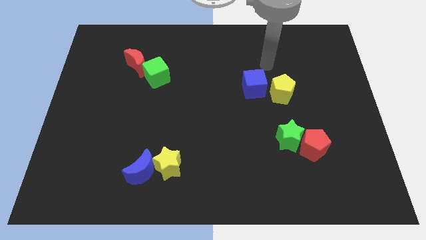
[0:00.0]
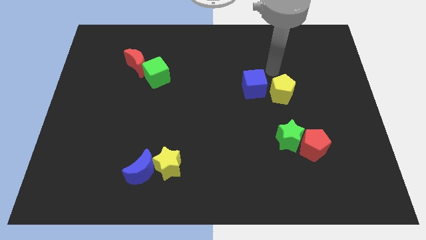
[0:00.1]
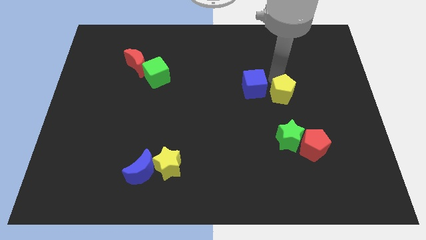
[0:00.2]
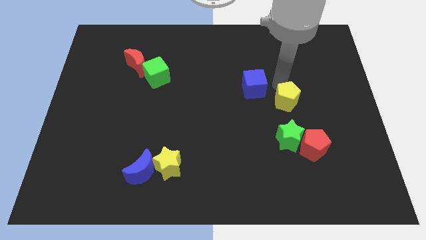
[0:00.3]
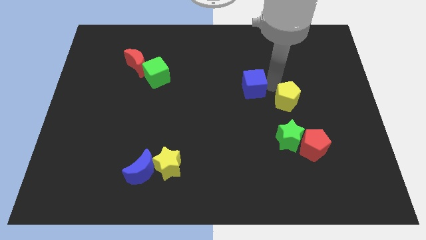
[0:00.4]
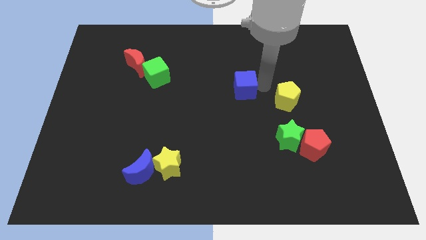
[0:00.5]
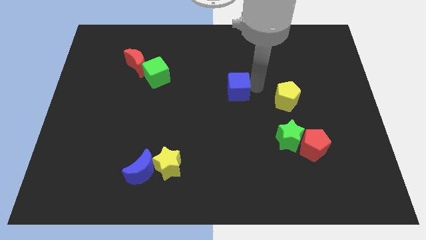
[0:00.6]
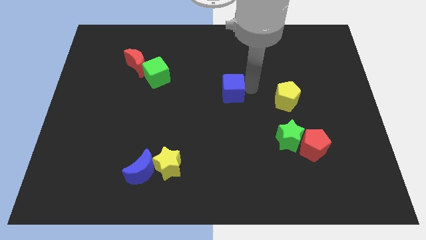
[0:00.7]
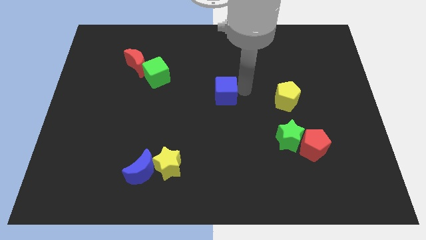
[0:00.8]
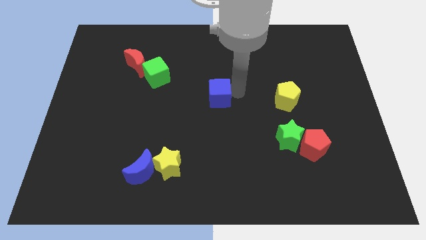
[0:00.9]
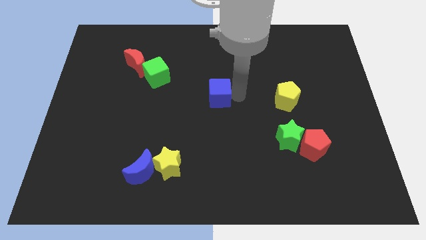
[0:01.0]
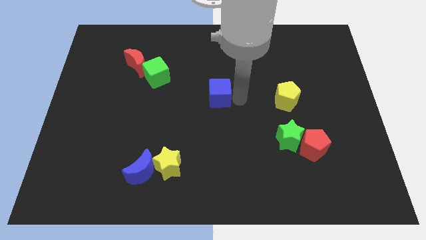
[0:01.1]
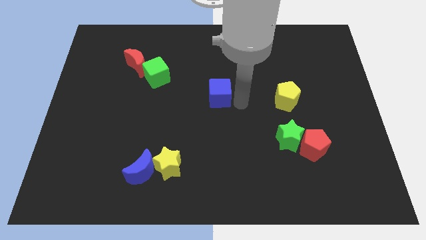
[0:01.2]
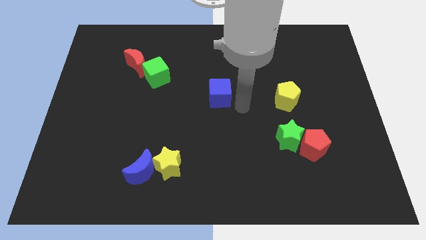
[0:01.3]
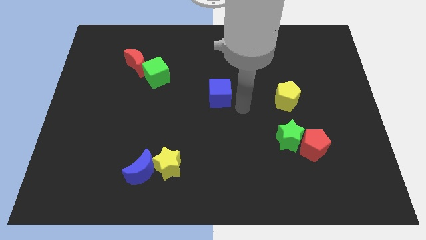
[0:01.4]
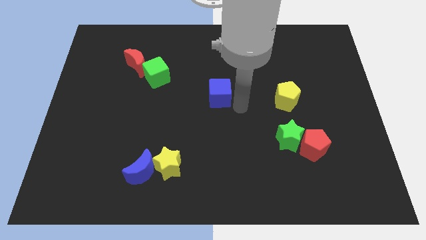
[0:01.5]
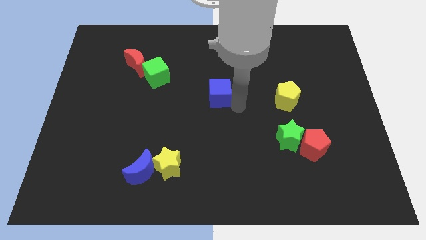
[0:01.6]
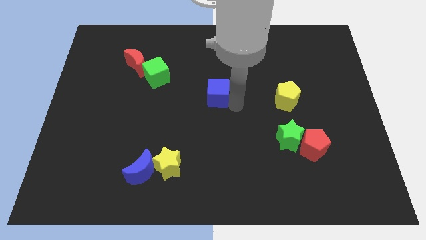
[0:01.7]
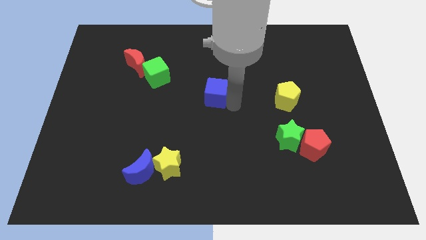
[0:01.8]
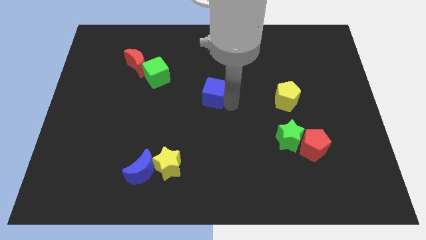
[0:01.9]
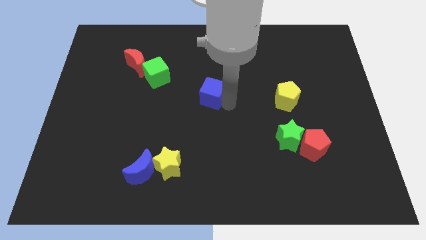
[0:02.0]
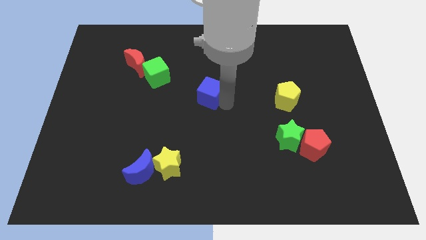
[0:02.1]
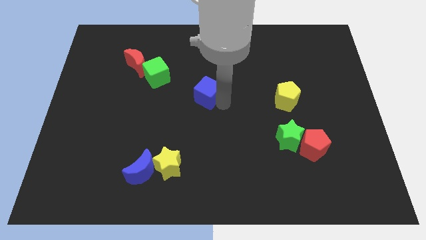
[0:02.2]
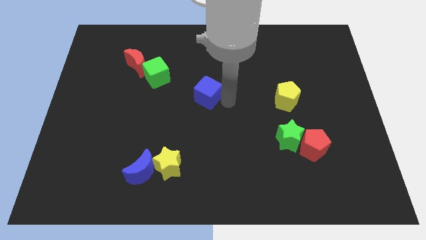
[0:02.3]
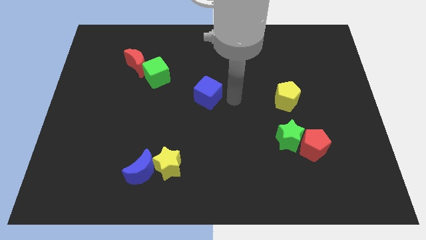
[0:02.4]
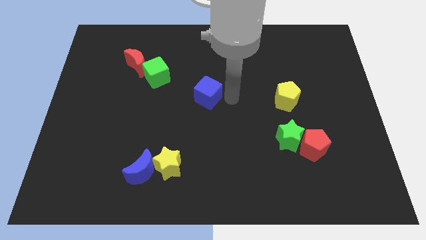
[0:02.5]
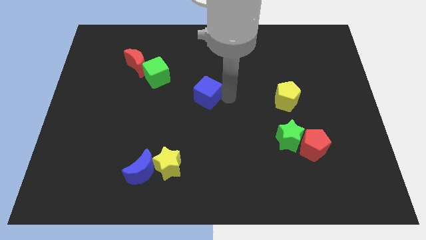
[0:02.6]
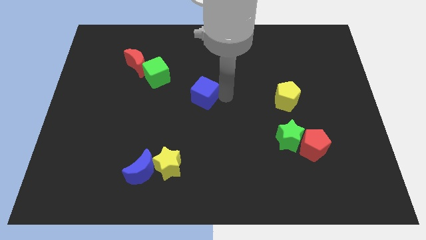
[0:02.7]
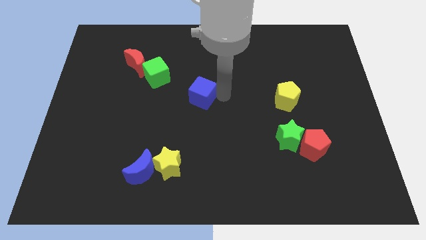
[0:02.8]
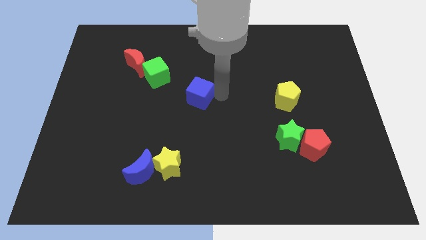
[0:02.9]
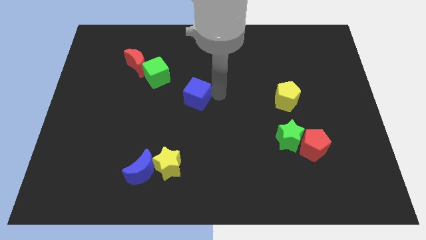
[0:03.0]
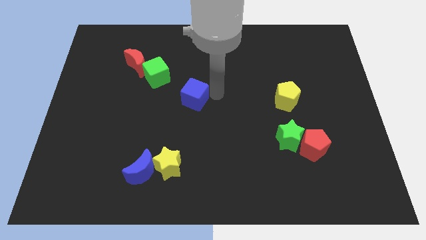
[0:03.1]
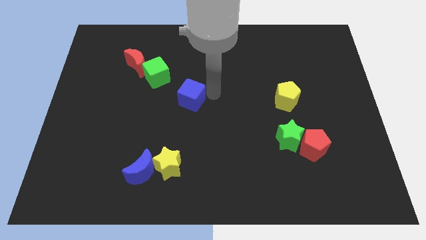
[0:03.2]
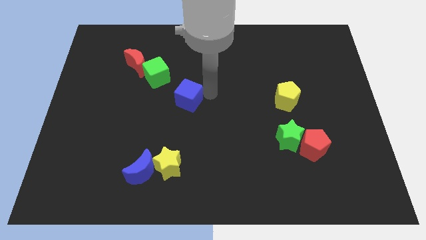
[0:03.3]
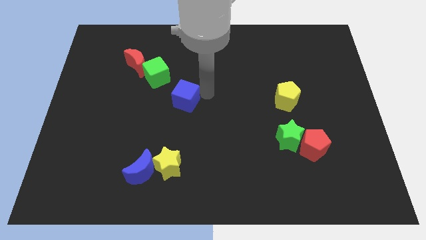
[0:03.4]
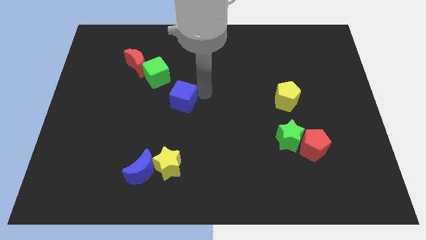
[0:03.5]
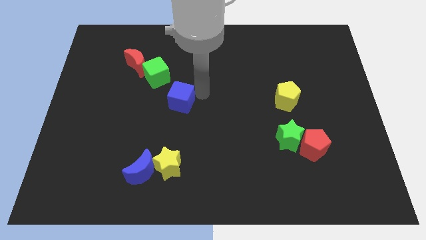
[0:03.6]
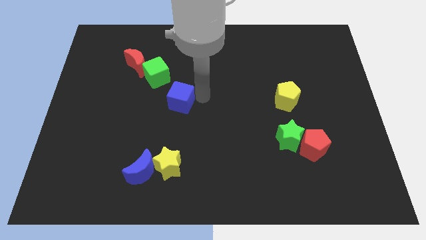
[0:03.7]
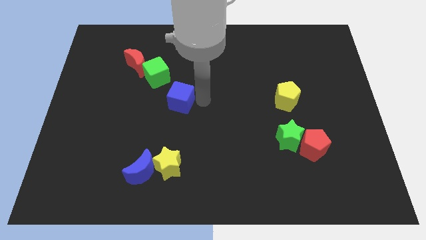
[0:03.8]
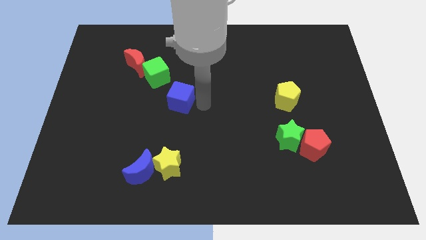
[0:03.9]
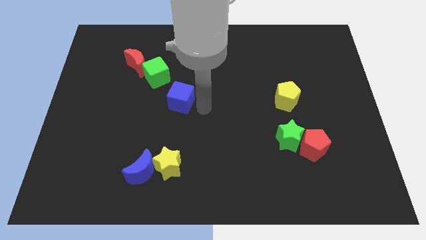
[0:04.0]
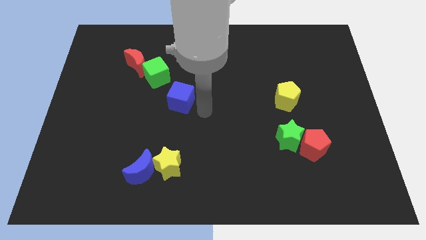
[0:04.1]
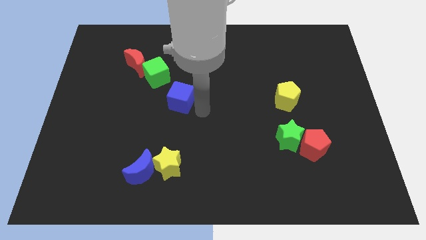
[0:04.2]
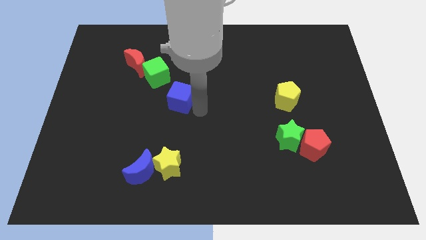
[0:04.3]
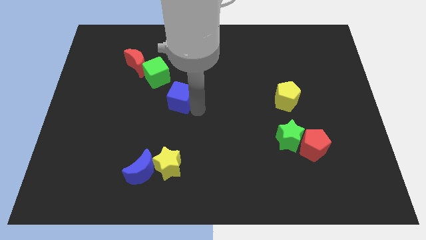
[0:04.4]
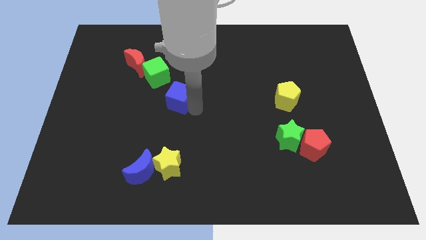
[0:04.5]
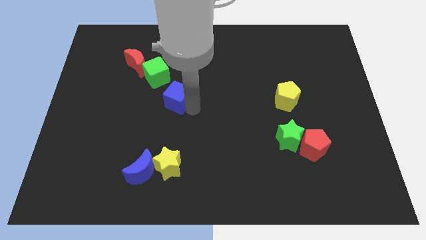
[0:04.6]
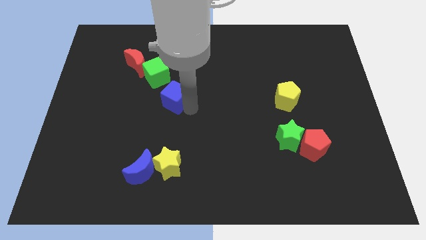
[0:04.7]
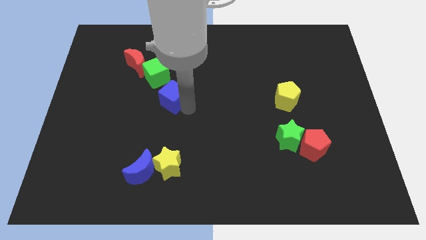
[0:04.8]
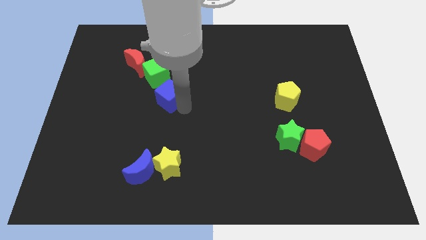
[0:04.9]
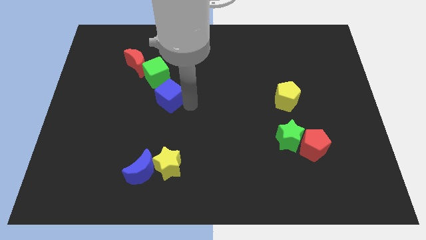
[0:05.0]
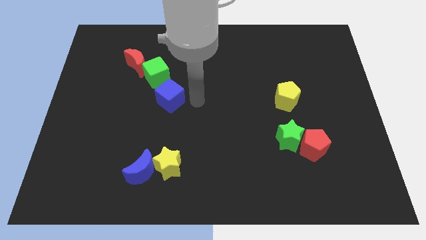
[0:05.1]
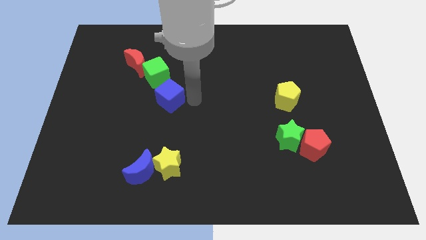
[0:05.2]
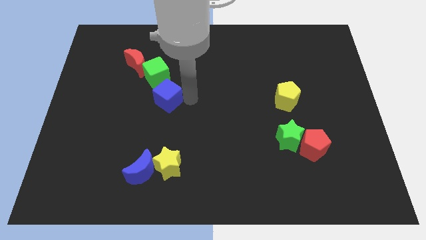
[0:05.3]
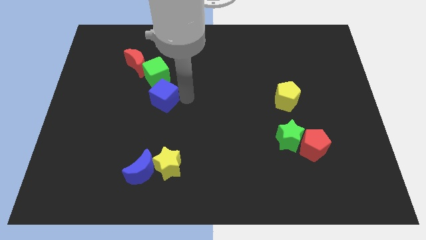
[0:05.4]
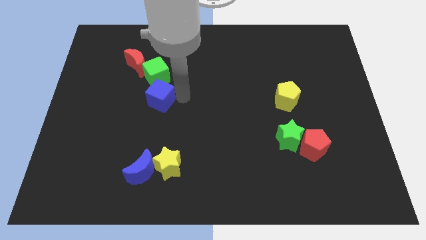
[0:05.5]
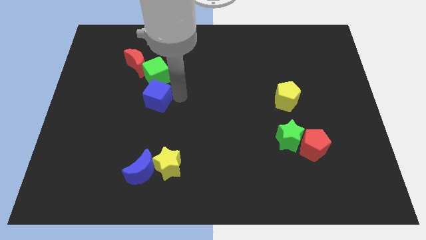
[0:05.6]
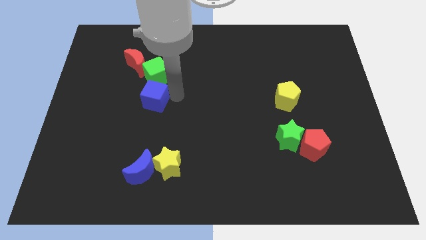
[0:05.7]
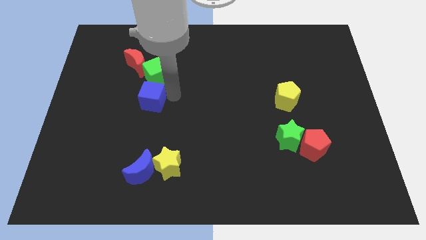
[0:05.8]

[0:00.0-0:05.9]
push the blue cube to the bottom of the red moon

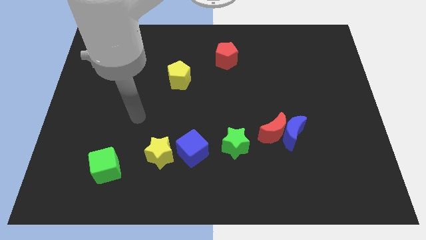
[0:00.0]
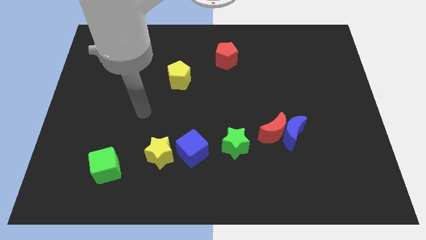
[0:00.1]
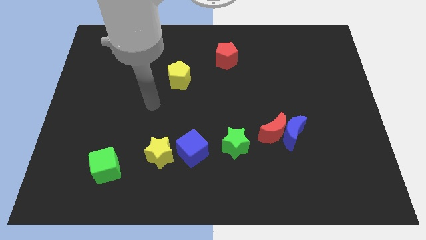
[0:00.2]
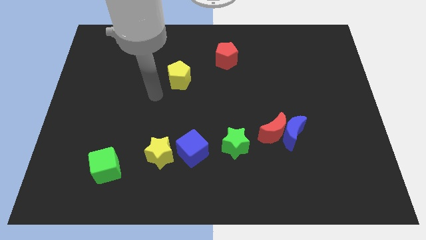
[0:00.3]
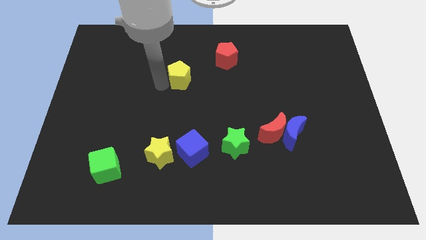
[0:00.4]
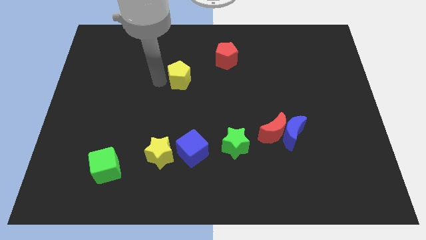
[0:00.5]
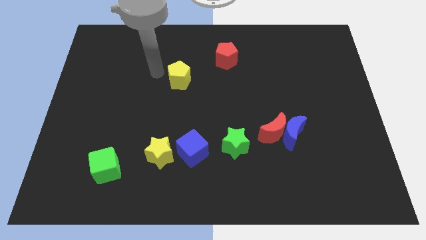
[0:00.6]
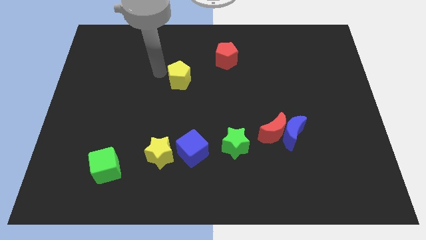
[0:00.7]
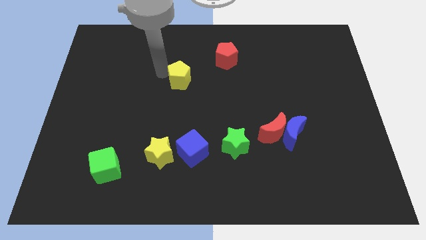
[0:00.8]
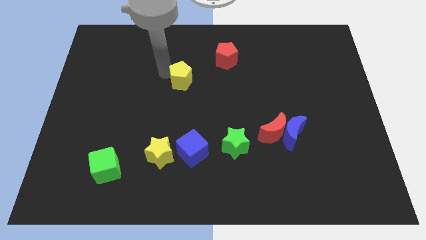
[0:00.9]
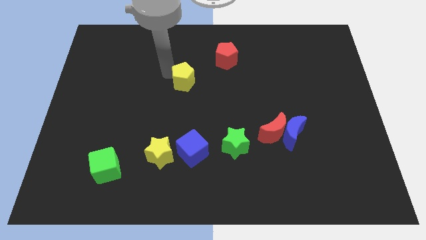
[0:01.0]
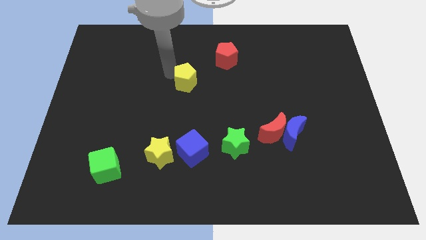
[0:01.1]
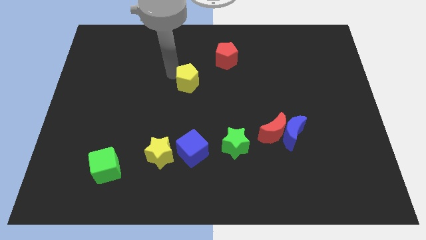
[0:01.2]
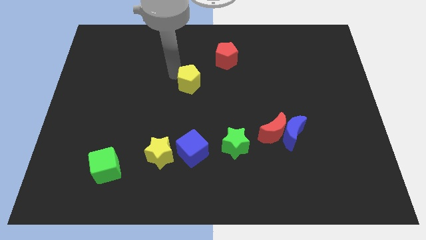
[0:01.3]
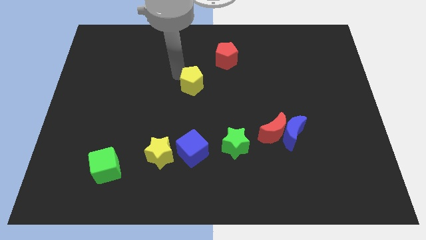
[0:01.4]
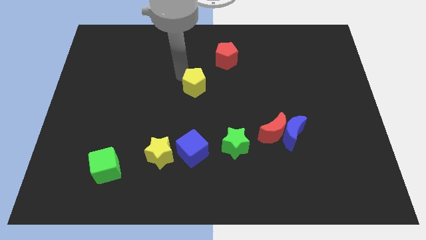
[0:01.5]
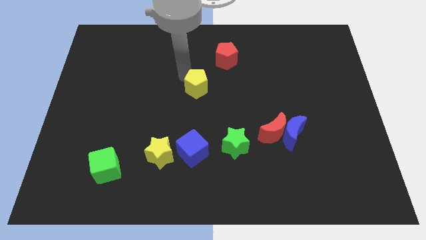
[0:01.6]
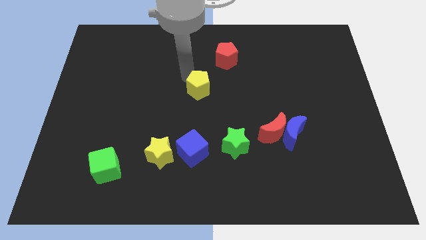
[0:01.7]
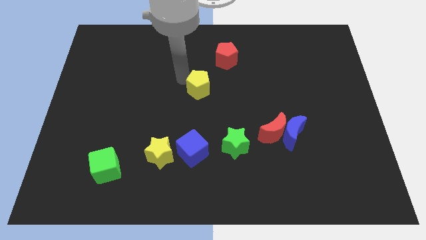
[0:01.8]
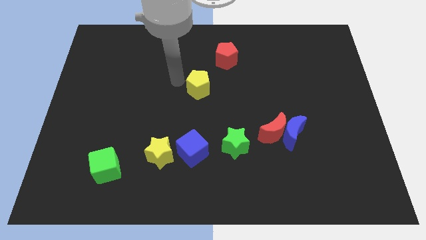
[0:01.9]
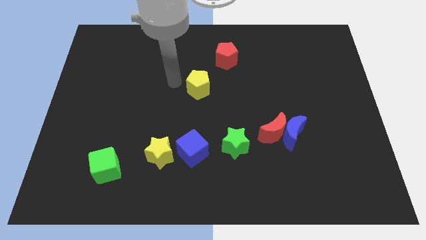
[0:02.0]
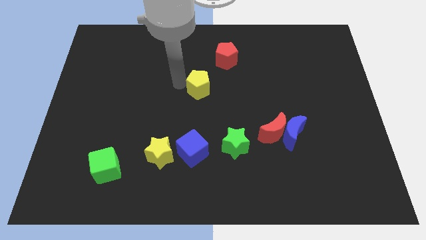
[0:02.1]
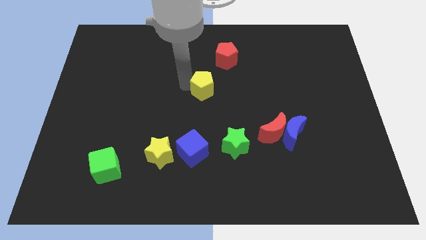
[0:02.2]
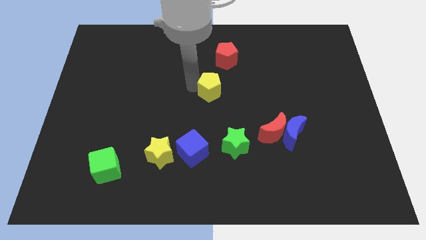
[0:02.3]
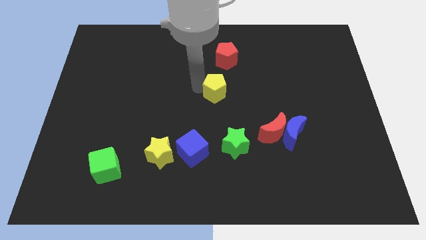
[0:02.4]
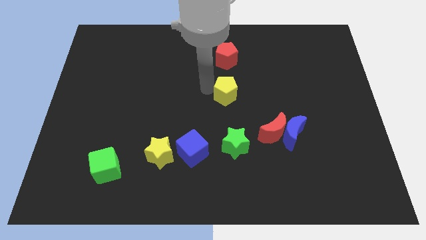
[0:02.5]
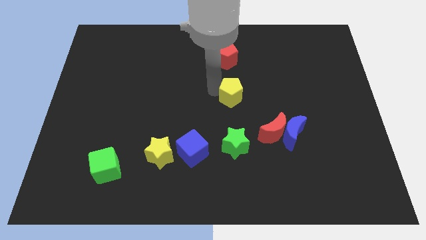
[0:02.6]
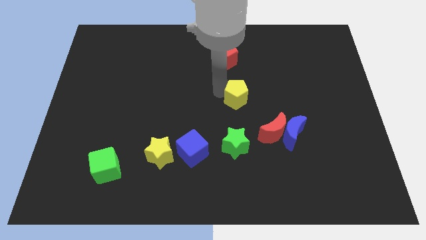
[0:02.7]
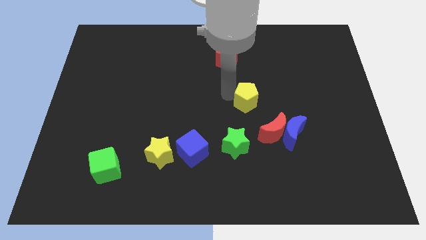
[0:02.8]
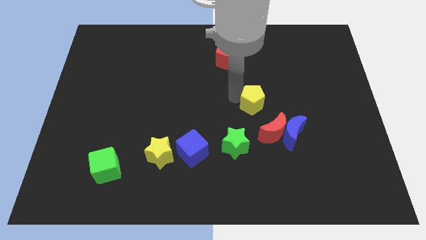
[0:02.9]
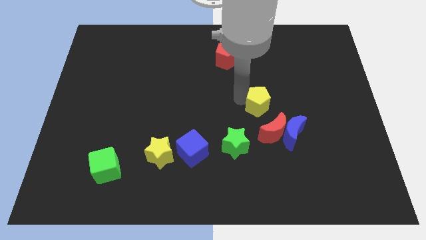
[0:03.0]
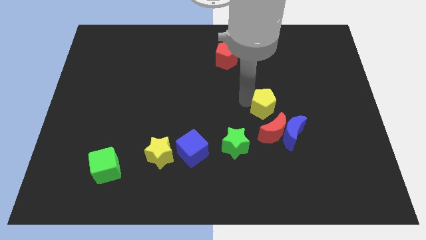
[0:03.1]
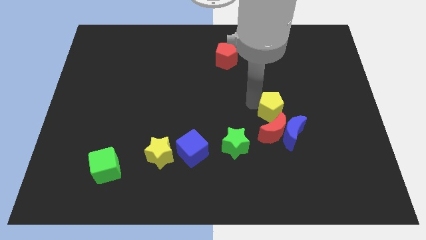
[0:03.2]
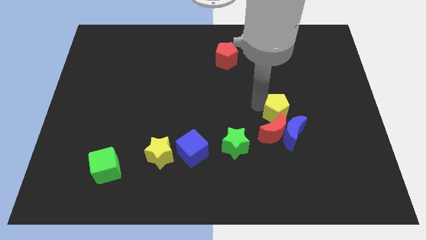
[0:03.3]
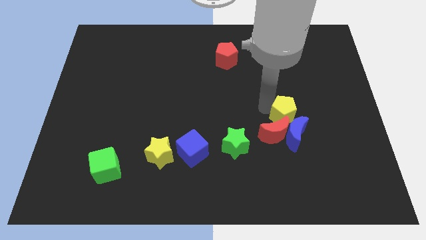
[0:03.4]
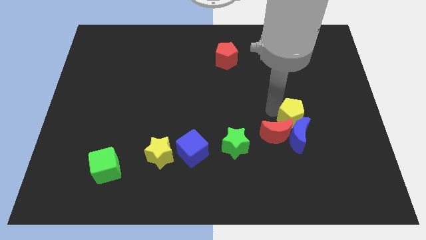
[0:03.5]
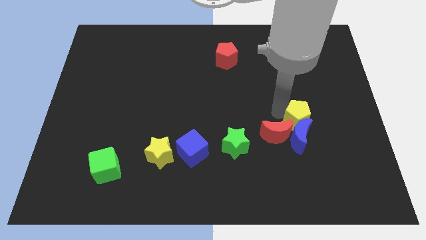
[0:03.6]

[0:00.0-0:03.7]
move the yellow pentagon just right of the red moon
